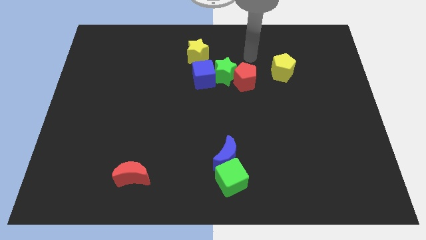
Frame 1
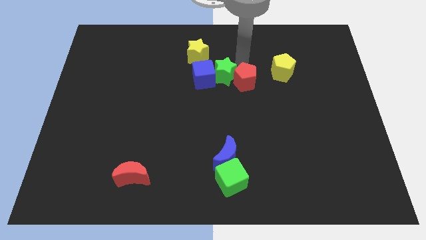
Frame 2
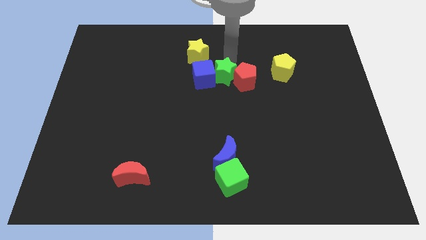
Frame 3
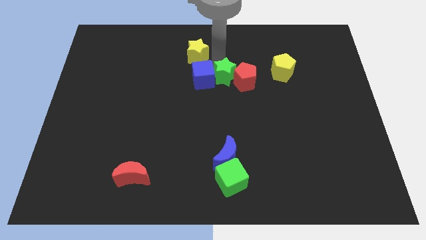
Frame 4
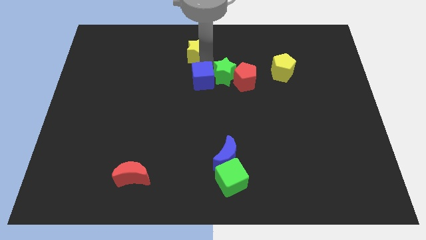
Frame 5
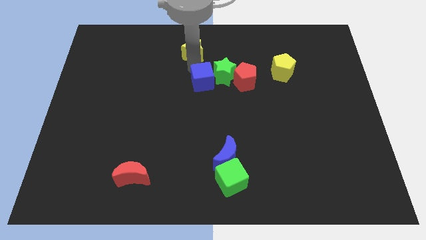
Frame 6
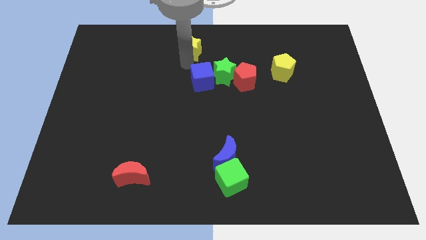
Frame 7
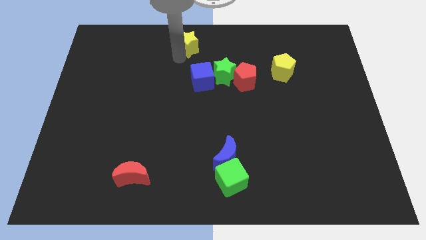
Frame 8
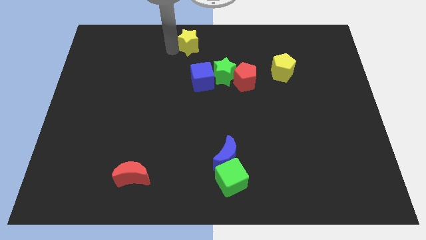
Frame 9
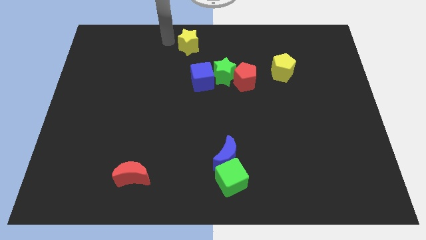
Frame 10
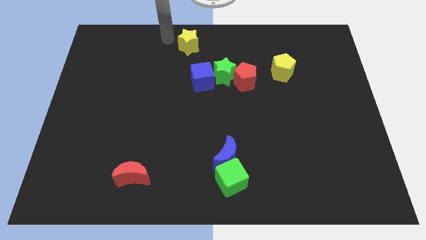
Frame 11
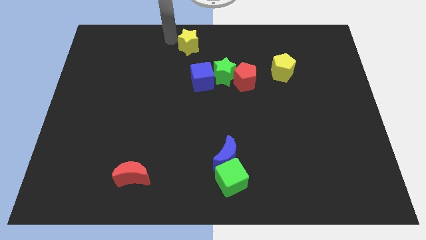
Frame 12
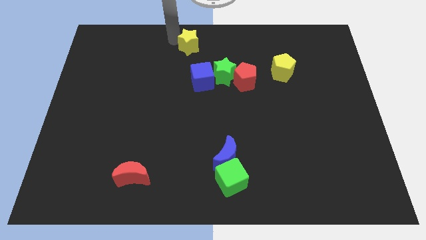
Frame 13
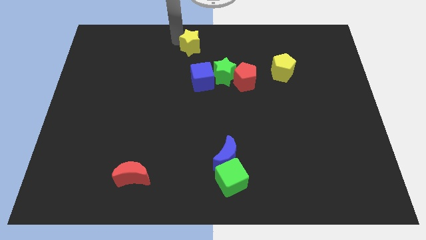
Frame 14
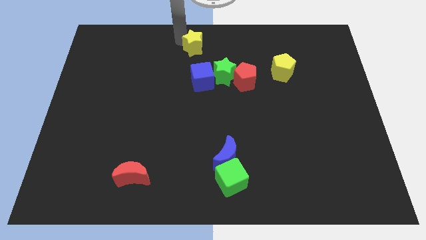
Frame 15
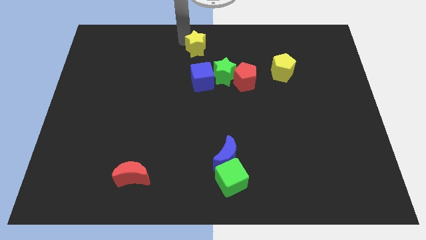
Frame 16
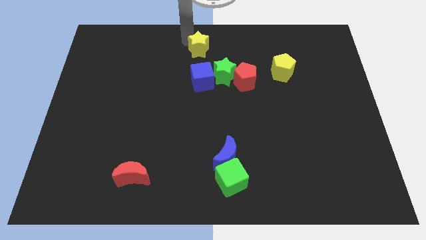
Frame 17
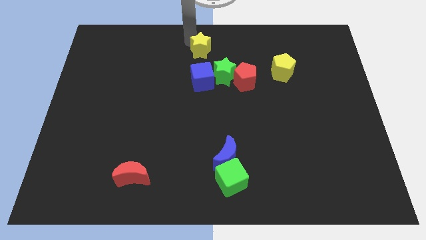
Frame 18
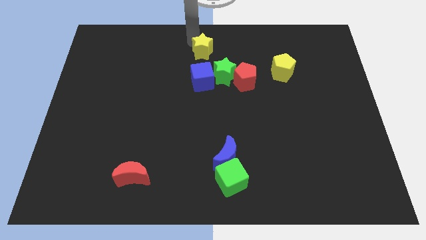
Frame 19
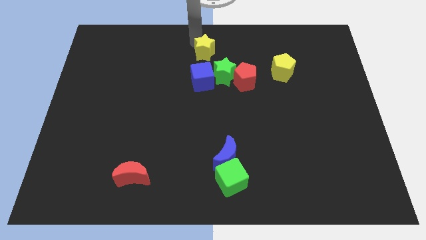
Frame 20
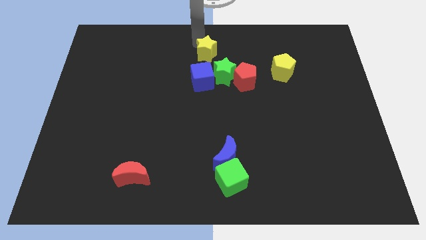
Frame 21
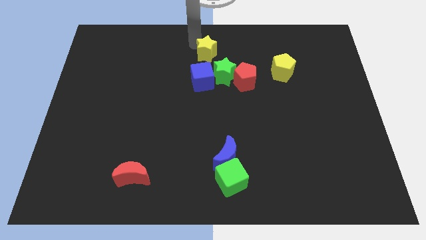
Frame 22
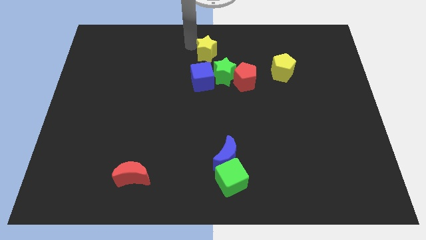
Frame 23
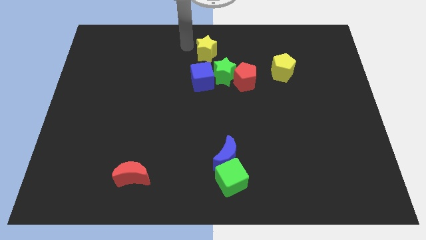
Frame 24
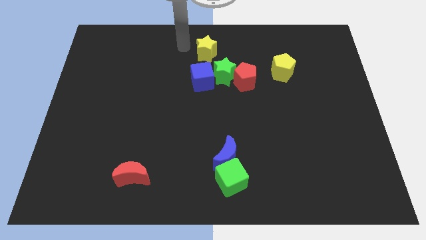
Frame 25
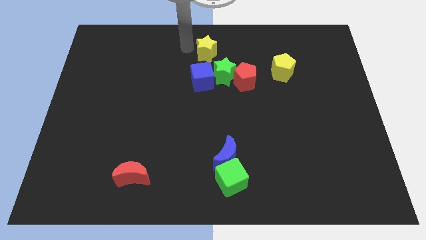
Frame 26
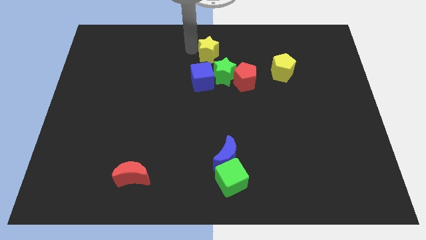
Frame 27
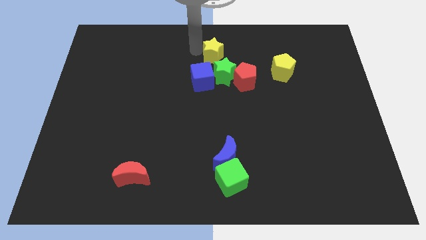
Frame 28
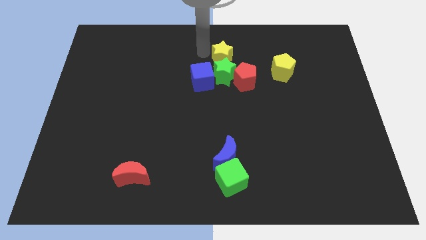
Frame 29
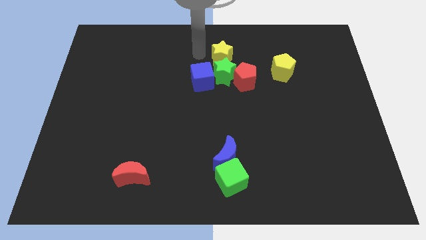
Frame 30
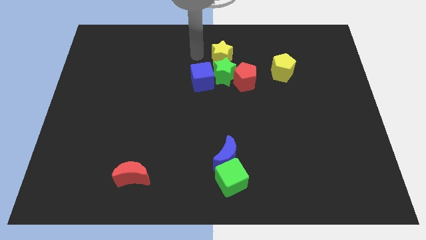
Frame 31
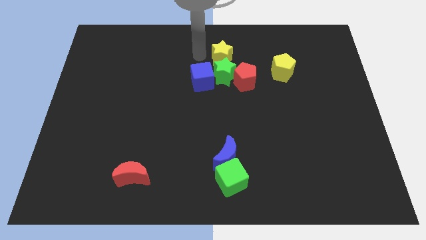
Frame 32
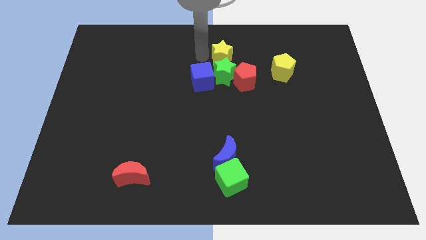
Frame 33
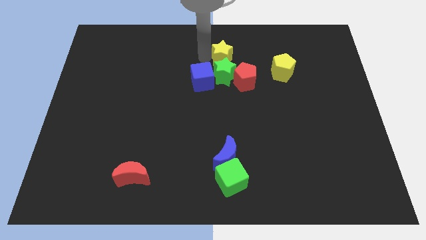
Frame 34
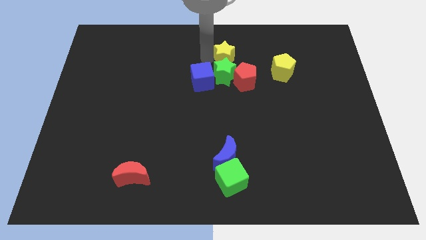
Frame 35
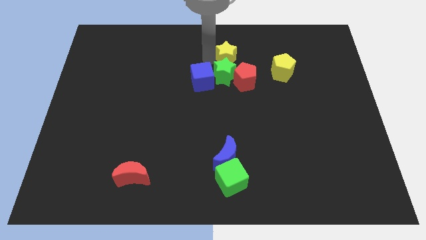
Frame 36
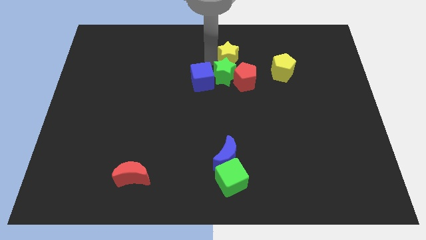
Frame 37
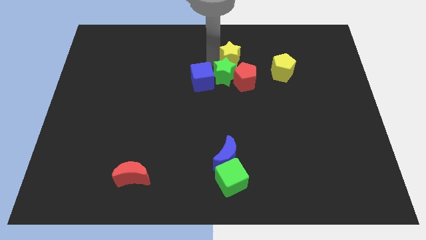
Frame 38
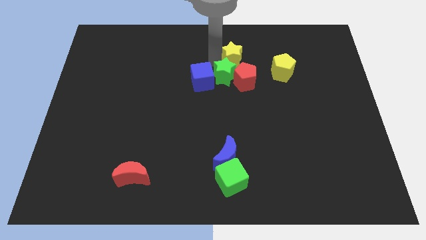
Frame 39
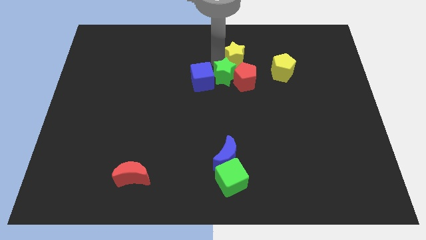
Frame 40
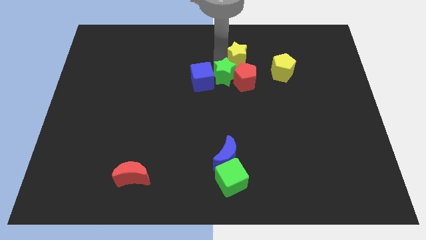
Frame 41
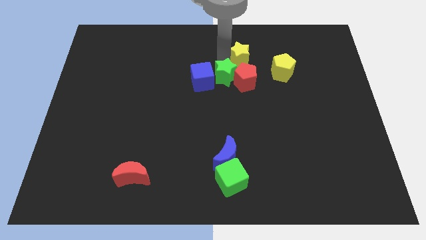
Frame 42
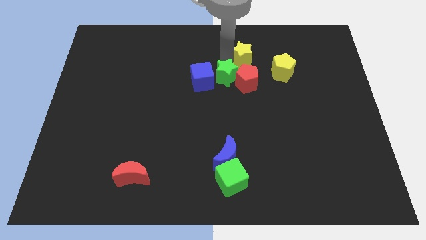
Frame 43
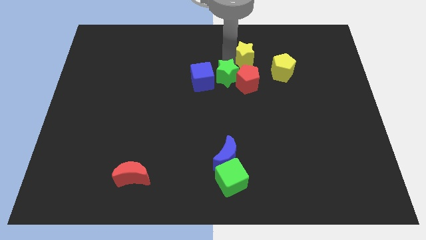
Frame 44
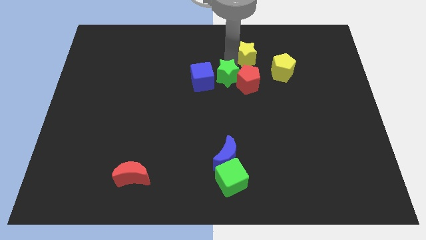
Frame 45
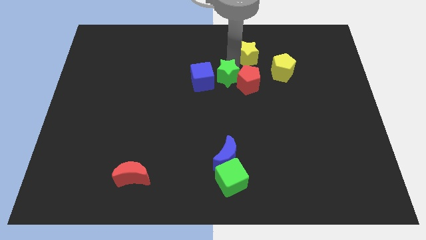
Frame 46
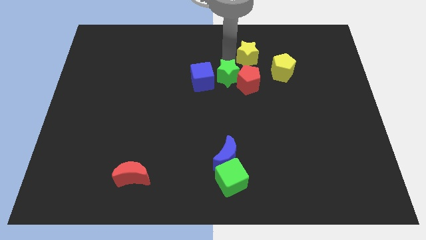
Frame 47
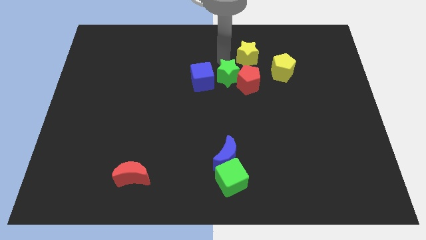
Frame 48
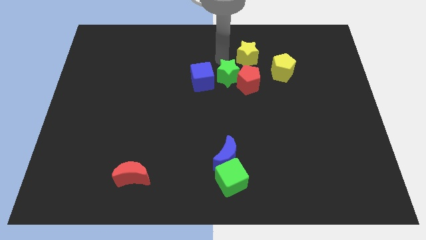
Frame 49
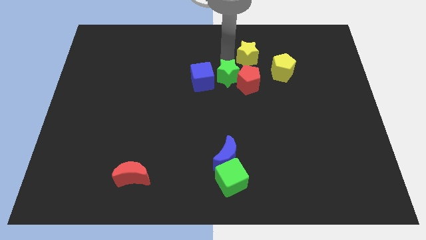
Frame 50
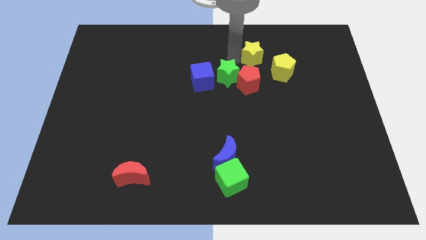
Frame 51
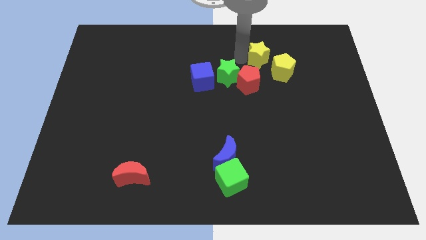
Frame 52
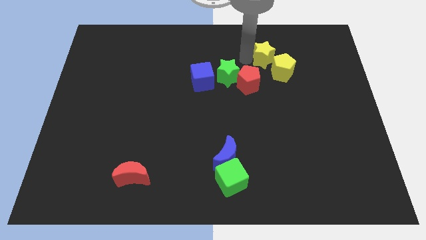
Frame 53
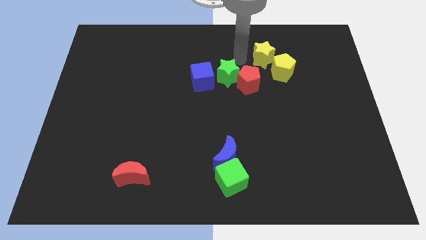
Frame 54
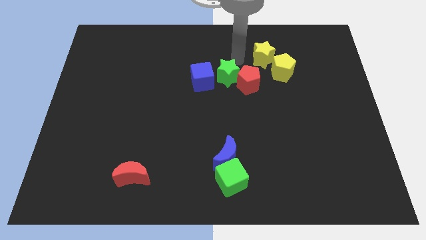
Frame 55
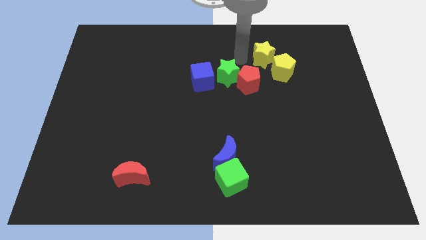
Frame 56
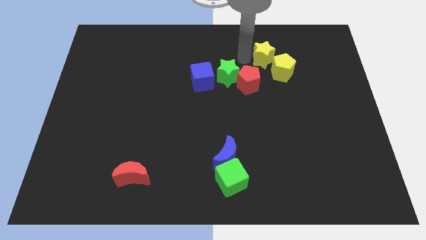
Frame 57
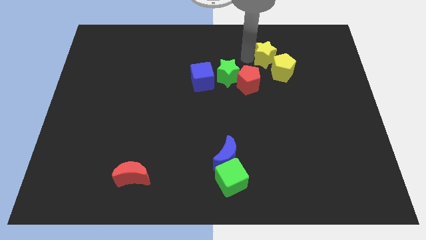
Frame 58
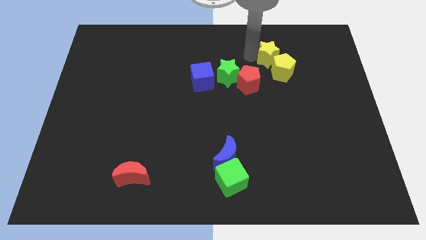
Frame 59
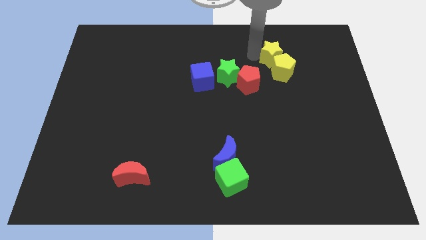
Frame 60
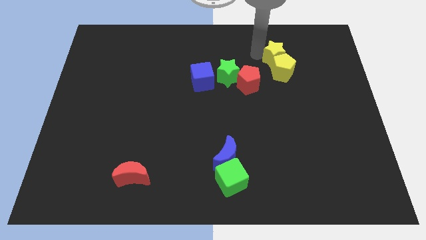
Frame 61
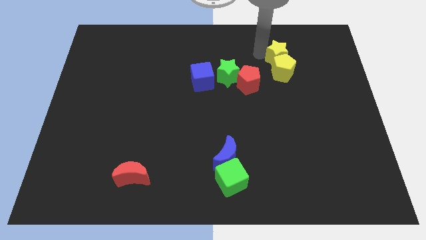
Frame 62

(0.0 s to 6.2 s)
slide the yellow star to the top right side of the yellow pentagon

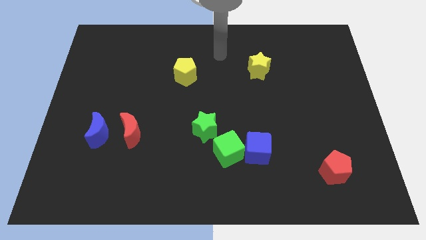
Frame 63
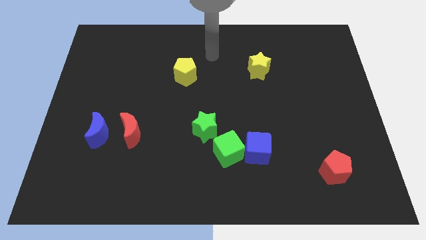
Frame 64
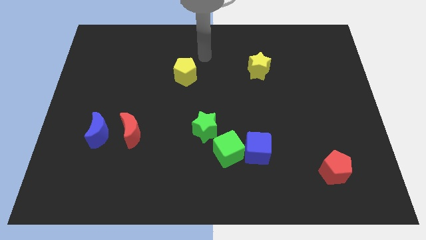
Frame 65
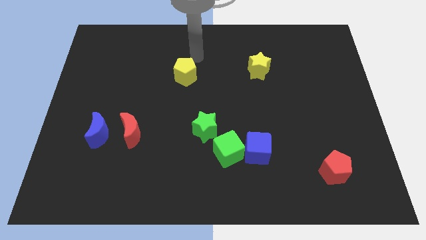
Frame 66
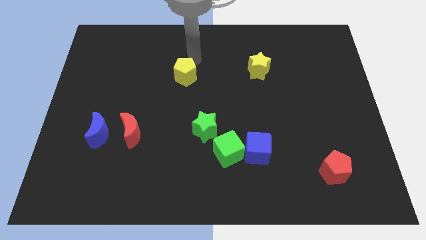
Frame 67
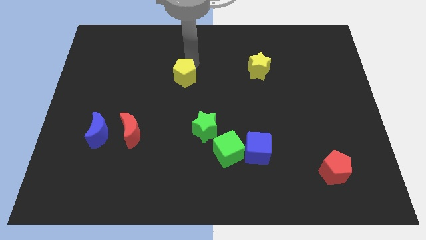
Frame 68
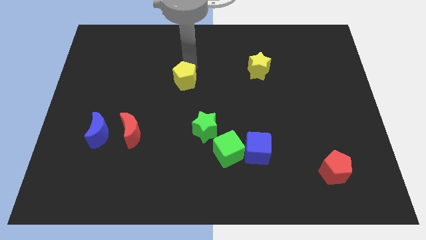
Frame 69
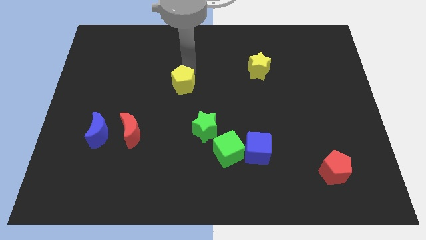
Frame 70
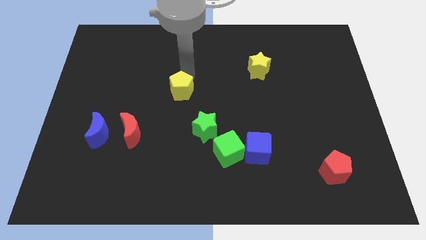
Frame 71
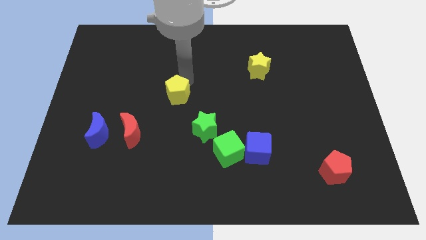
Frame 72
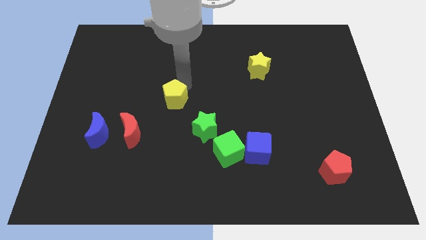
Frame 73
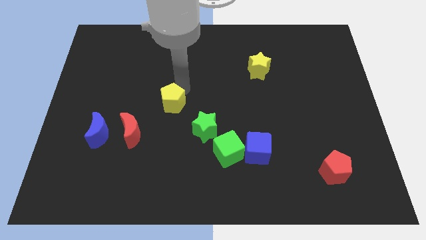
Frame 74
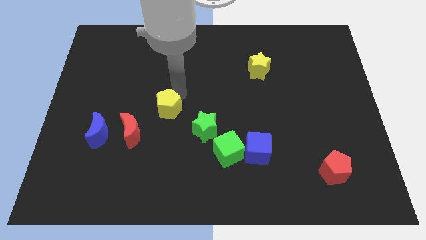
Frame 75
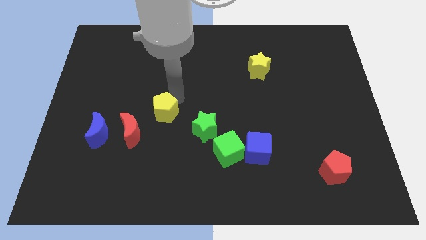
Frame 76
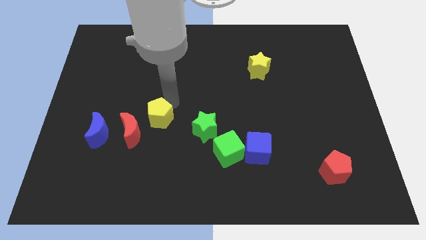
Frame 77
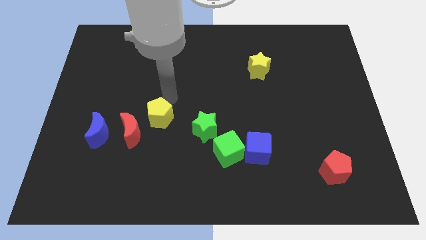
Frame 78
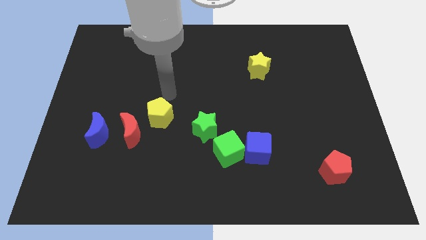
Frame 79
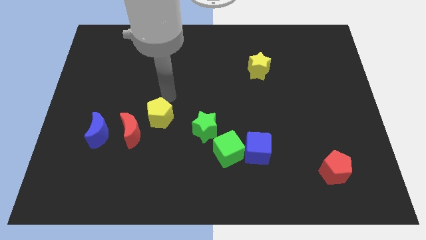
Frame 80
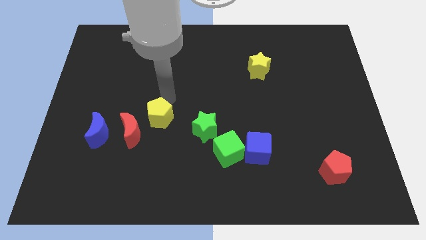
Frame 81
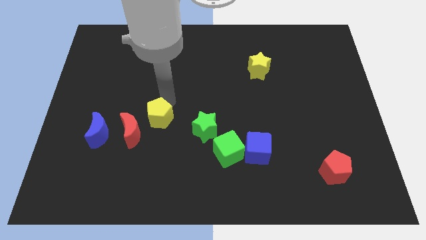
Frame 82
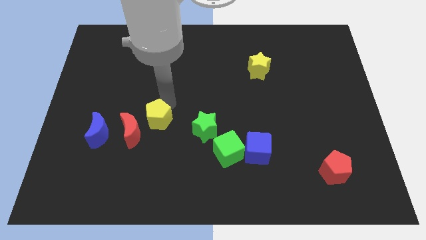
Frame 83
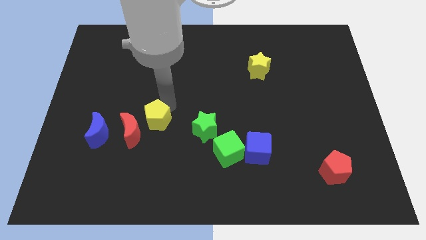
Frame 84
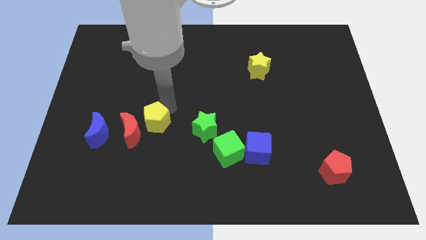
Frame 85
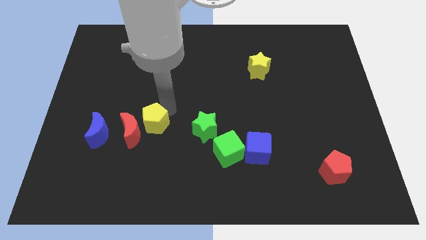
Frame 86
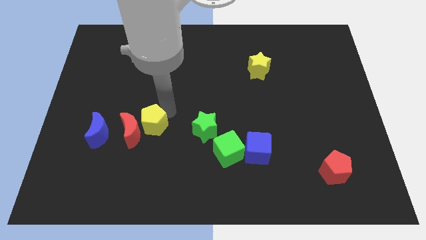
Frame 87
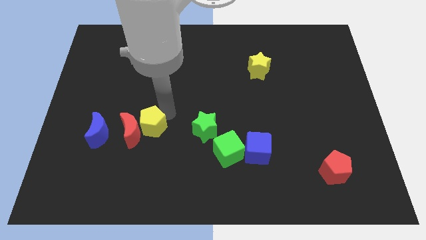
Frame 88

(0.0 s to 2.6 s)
push the yellow pentagon to the bottom right side of the red moon
